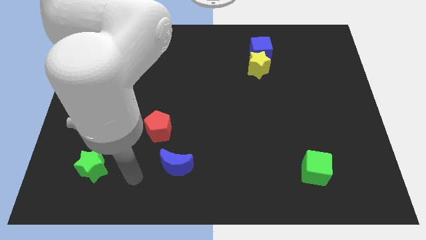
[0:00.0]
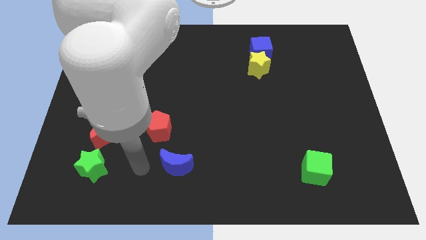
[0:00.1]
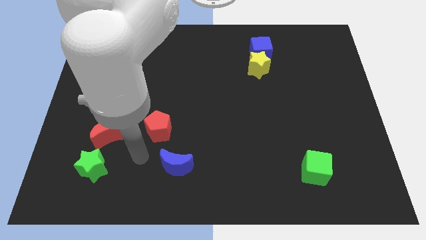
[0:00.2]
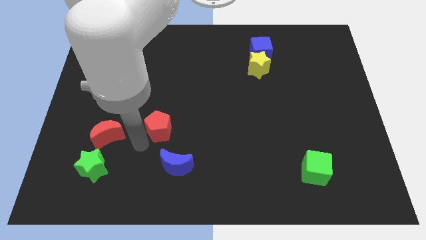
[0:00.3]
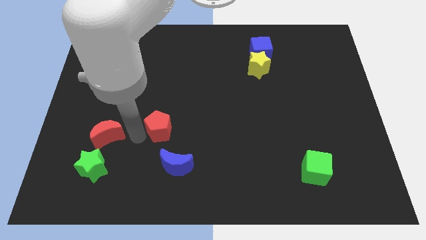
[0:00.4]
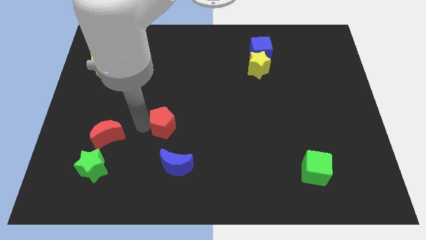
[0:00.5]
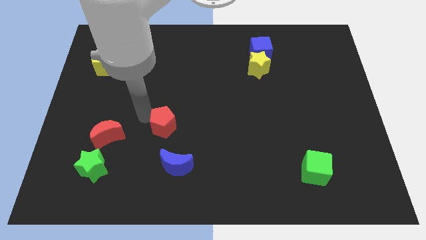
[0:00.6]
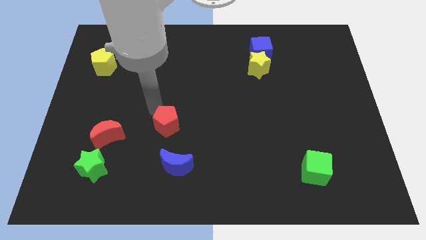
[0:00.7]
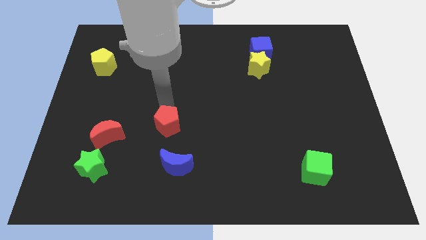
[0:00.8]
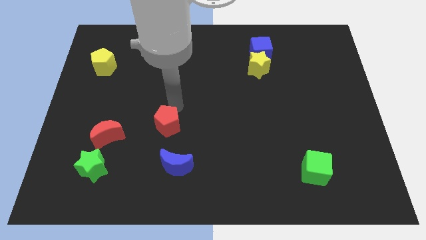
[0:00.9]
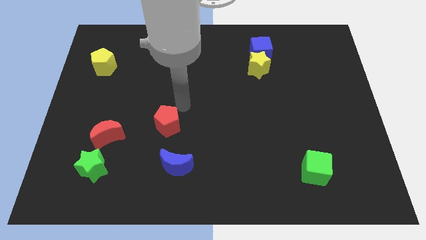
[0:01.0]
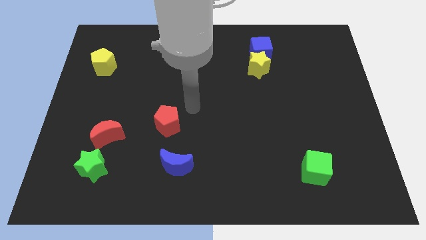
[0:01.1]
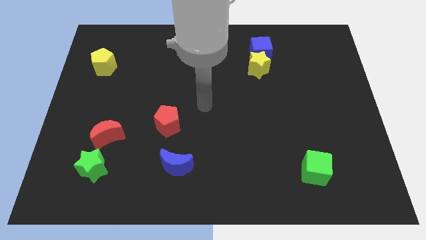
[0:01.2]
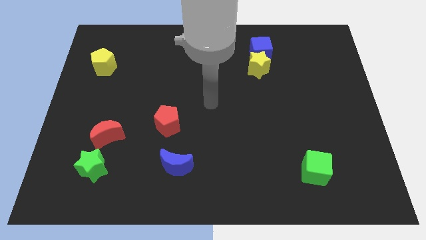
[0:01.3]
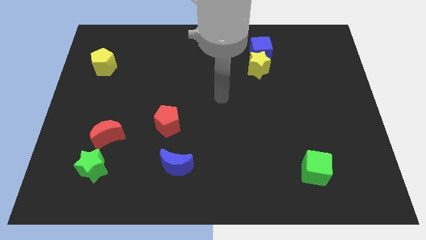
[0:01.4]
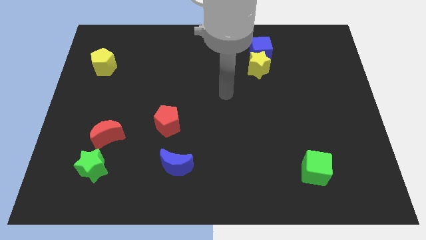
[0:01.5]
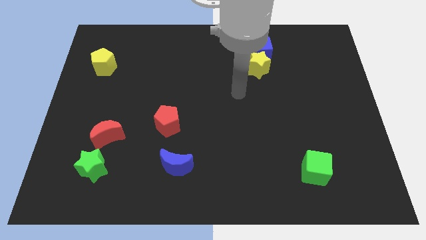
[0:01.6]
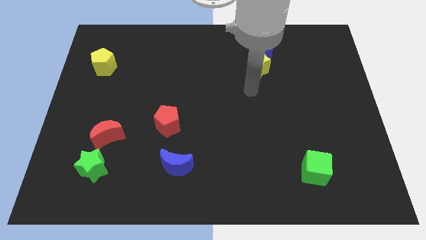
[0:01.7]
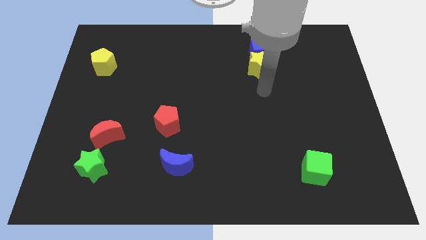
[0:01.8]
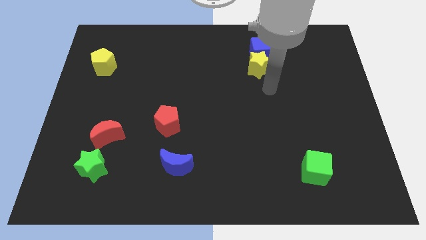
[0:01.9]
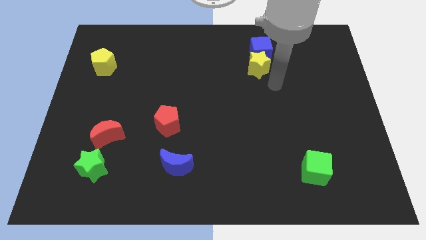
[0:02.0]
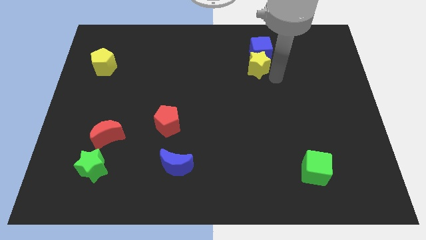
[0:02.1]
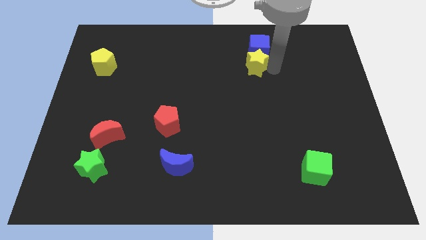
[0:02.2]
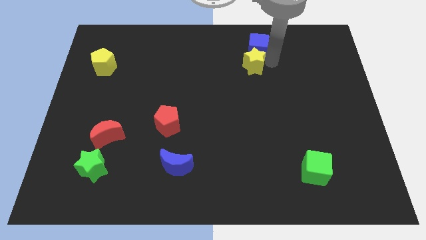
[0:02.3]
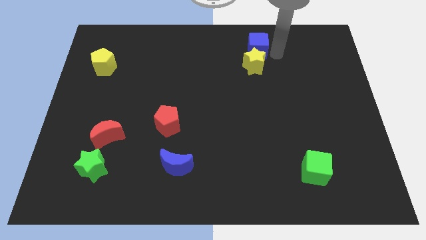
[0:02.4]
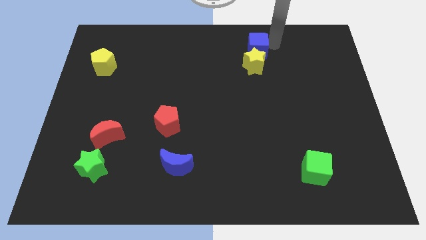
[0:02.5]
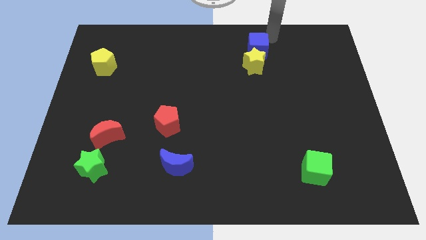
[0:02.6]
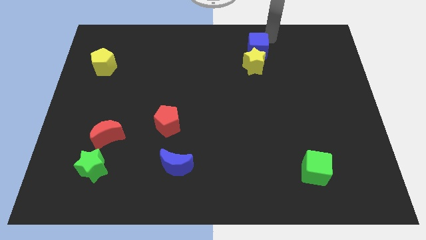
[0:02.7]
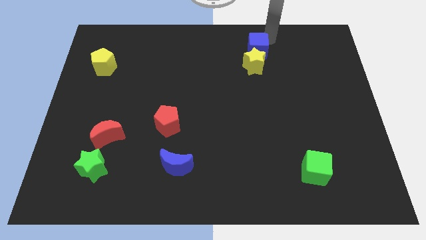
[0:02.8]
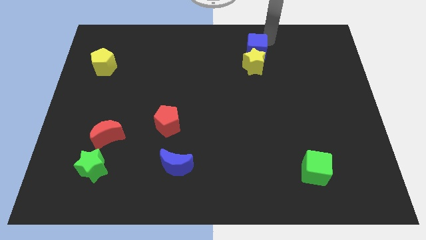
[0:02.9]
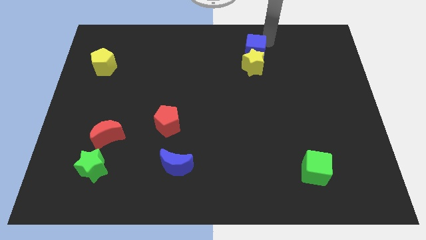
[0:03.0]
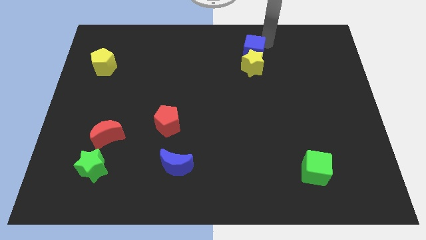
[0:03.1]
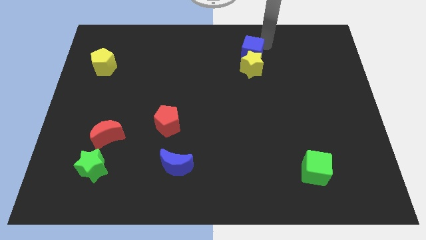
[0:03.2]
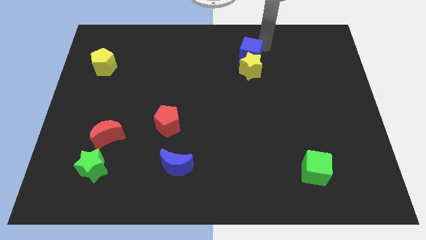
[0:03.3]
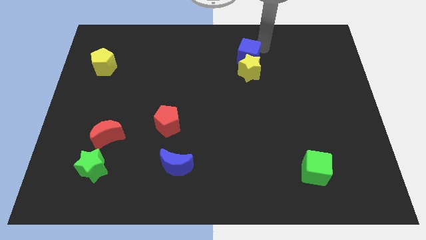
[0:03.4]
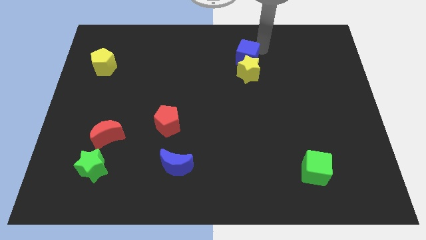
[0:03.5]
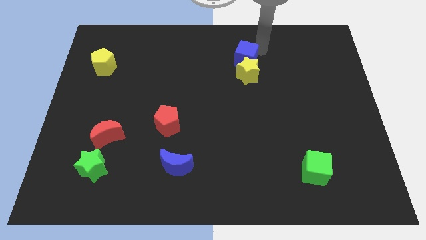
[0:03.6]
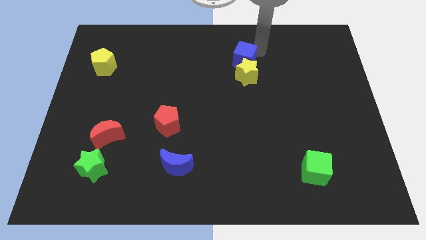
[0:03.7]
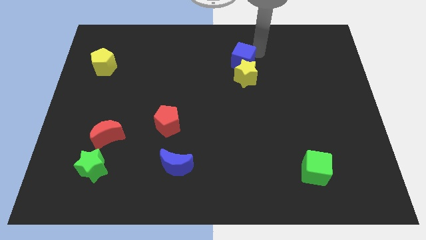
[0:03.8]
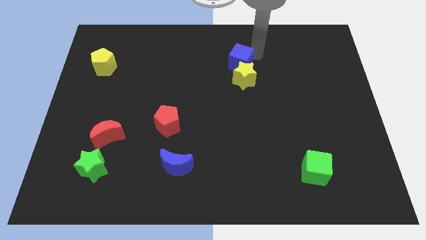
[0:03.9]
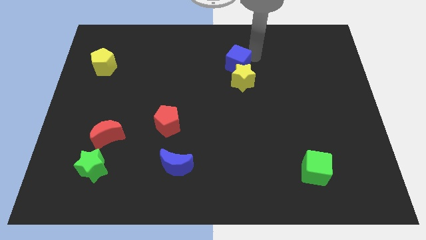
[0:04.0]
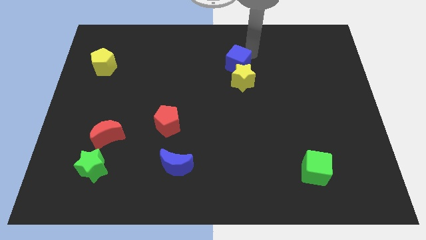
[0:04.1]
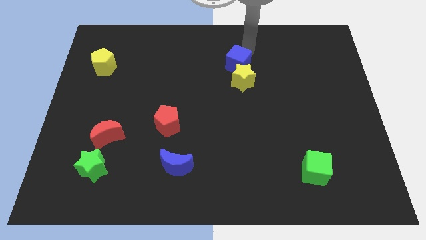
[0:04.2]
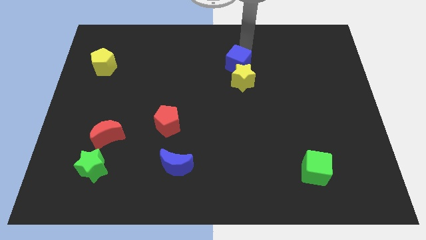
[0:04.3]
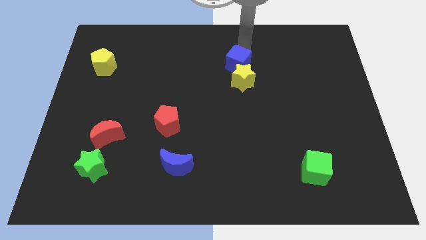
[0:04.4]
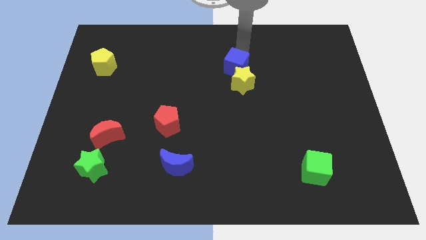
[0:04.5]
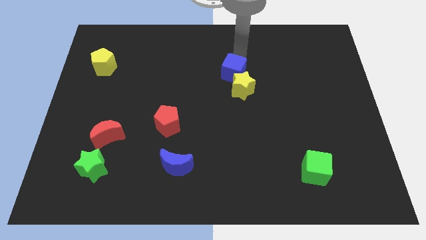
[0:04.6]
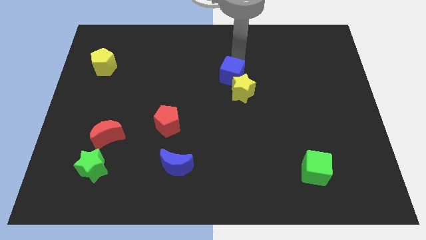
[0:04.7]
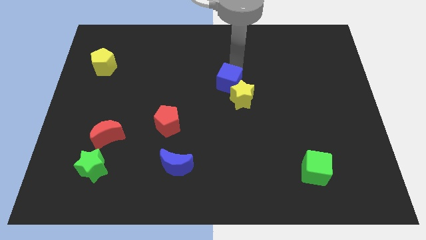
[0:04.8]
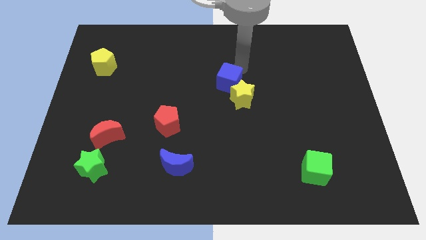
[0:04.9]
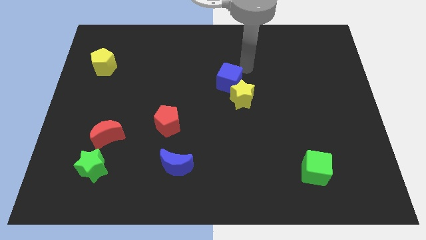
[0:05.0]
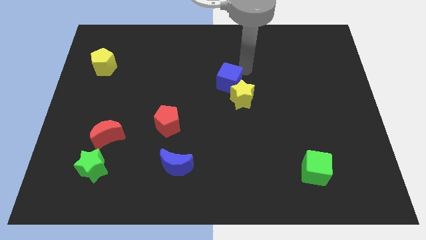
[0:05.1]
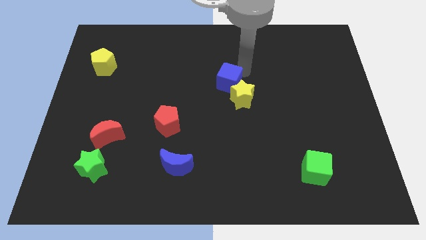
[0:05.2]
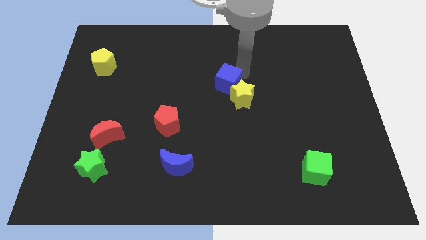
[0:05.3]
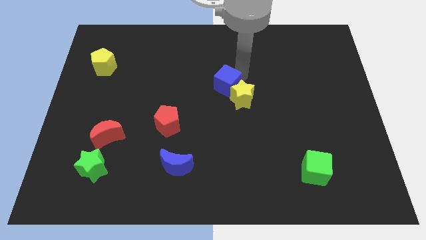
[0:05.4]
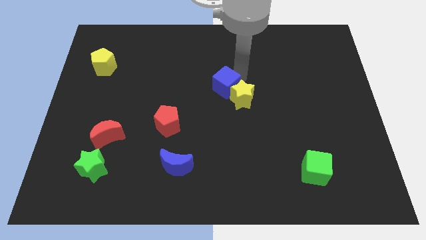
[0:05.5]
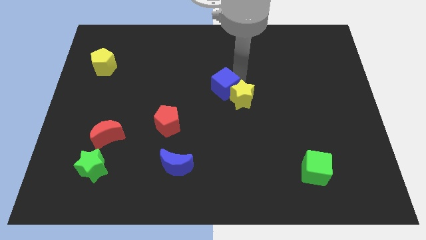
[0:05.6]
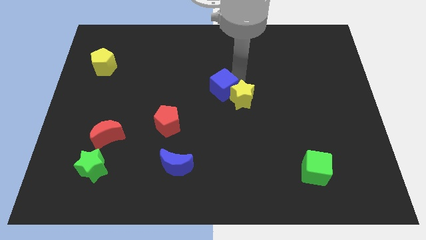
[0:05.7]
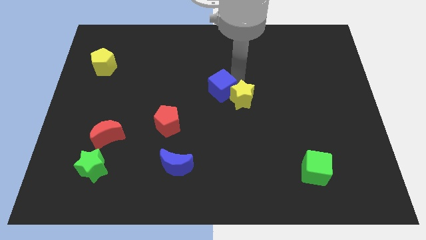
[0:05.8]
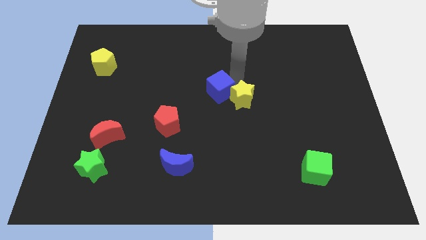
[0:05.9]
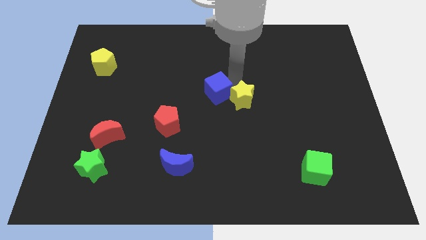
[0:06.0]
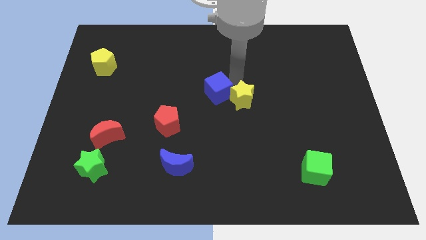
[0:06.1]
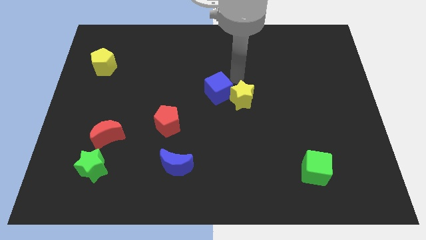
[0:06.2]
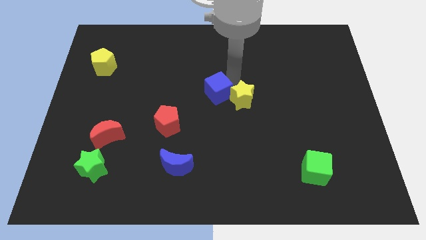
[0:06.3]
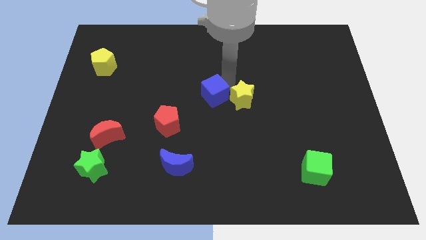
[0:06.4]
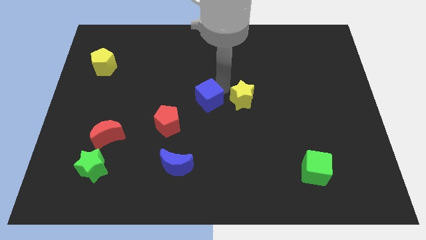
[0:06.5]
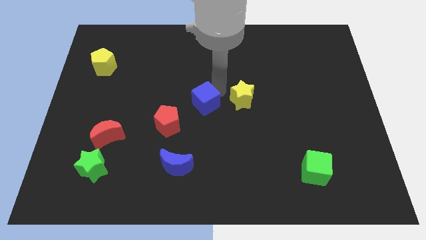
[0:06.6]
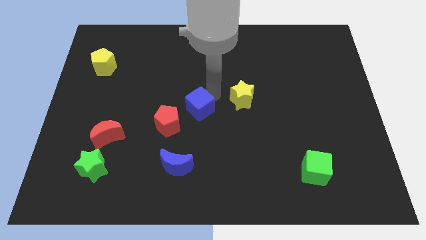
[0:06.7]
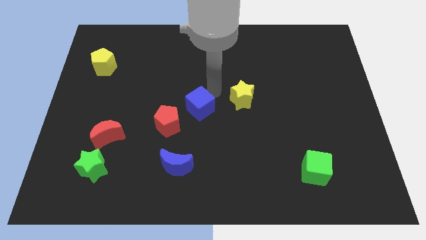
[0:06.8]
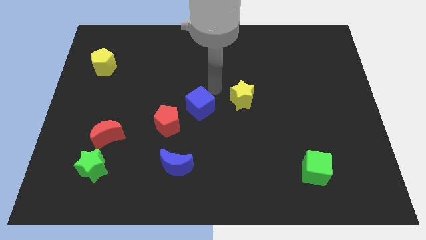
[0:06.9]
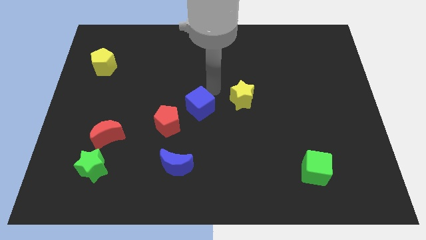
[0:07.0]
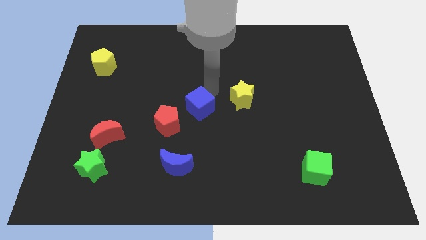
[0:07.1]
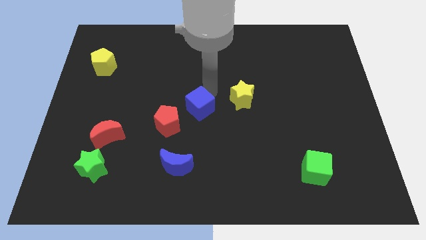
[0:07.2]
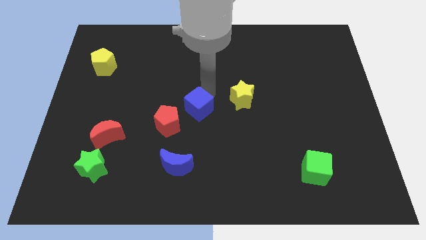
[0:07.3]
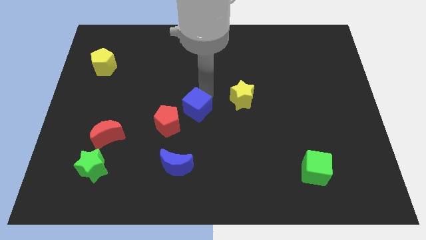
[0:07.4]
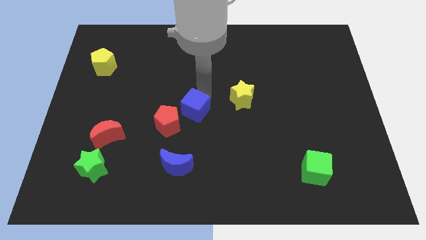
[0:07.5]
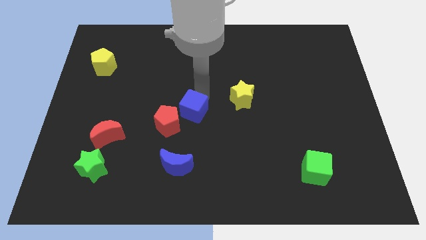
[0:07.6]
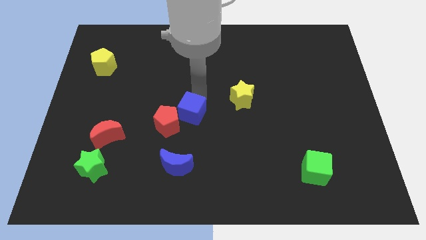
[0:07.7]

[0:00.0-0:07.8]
move the blue cube close to the red pentagon
